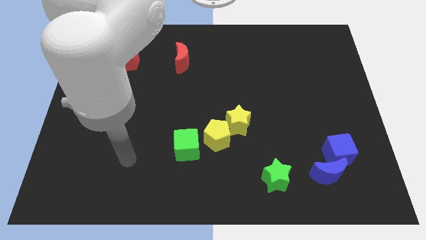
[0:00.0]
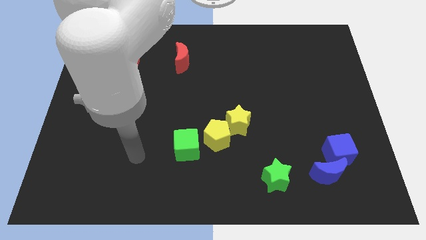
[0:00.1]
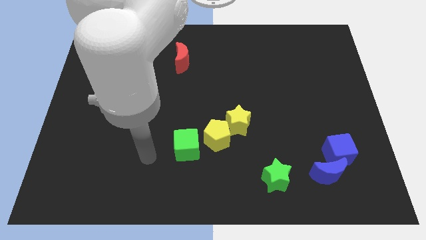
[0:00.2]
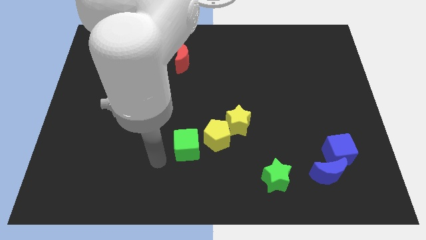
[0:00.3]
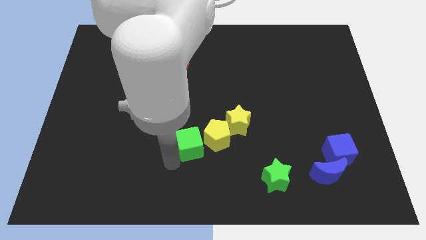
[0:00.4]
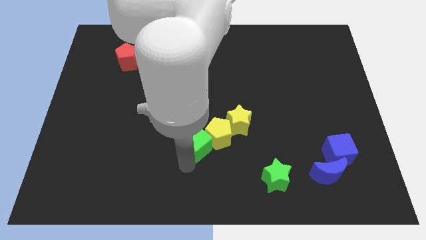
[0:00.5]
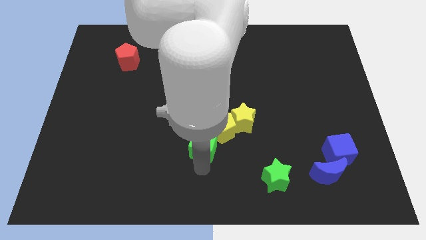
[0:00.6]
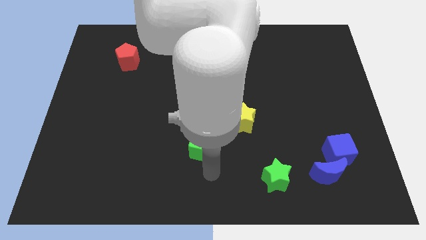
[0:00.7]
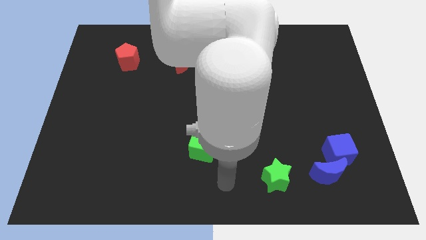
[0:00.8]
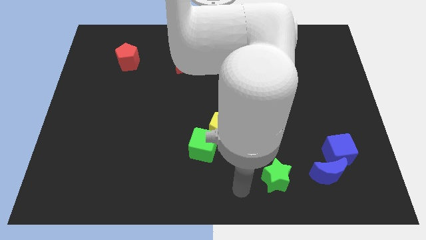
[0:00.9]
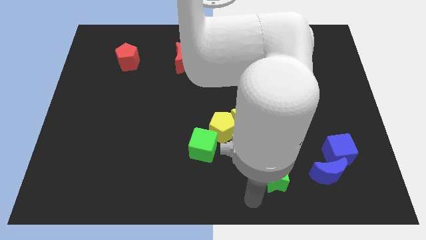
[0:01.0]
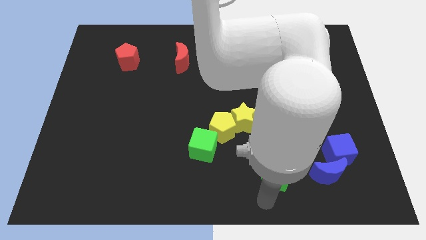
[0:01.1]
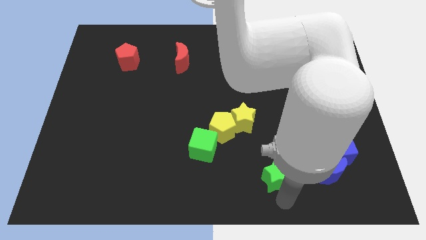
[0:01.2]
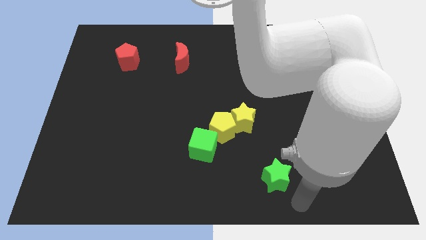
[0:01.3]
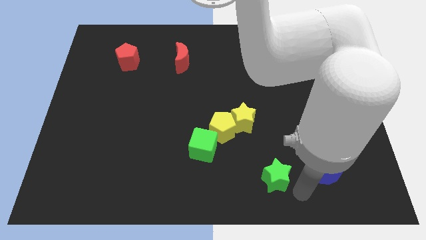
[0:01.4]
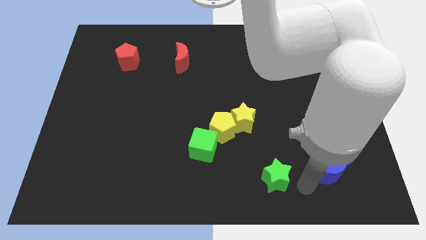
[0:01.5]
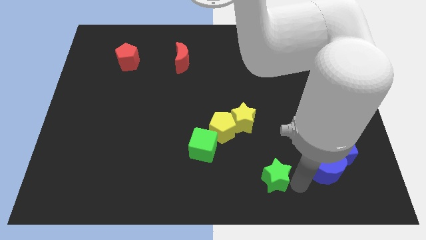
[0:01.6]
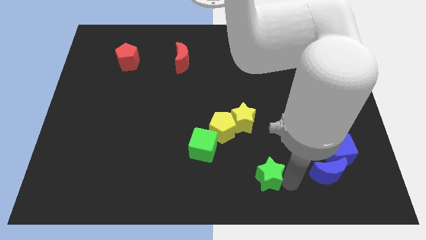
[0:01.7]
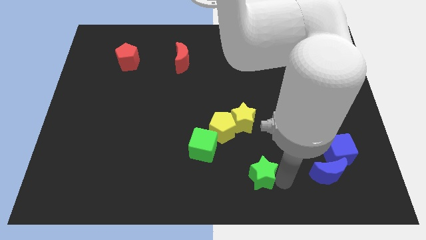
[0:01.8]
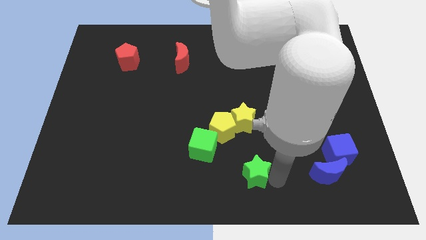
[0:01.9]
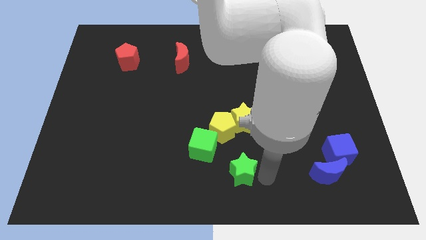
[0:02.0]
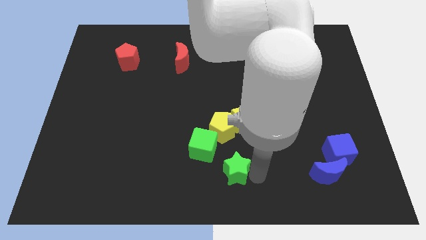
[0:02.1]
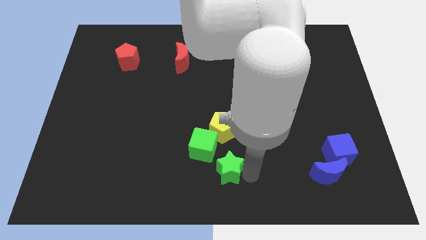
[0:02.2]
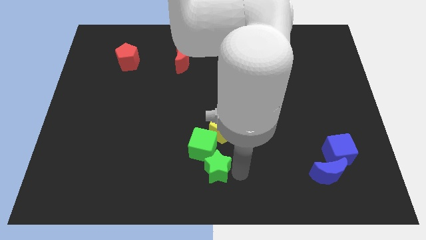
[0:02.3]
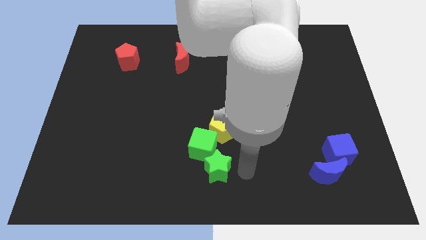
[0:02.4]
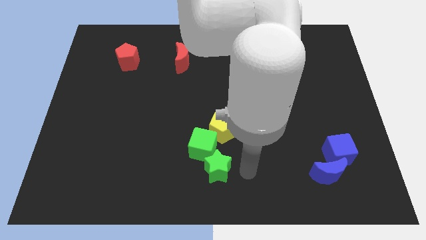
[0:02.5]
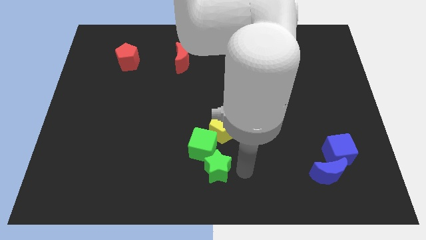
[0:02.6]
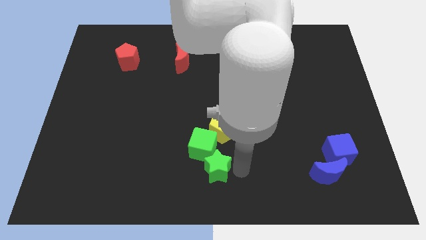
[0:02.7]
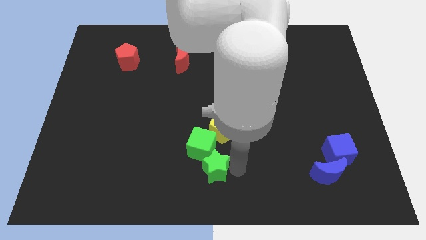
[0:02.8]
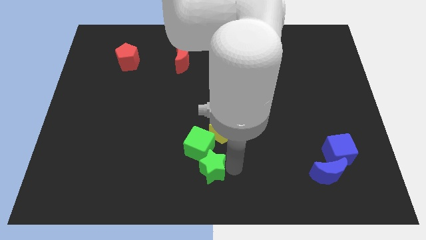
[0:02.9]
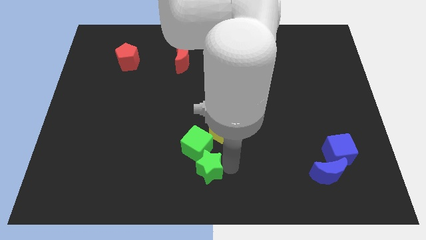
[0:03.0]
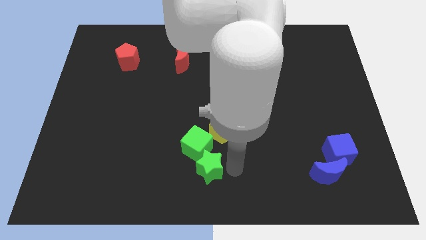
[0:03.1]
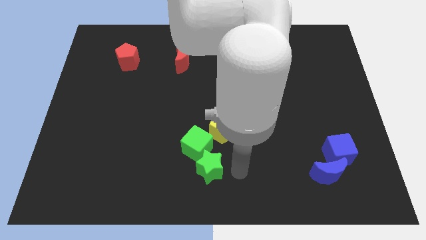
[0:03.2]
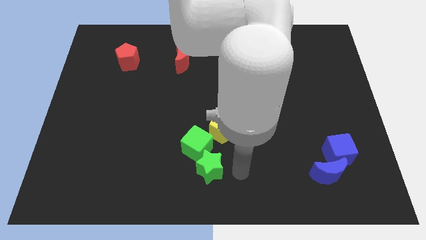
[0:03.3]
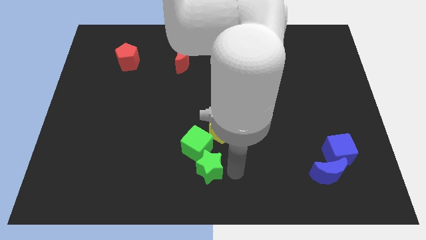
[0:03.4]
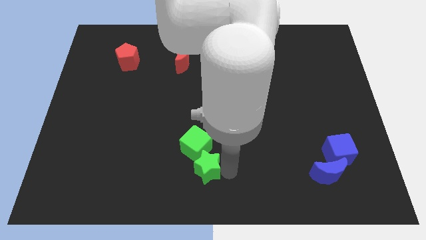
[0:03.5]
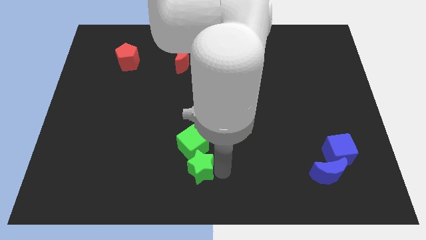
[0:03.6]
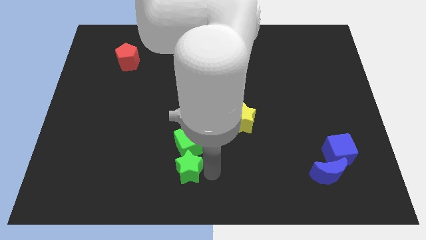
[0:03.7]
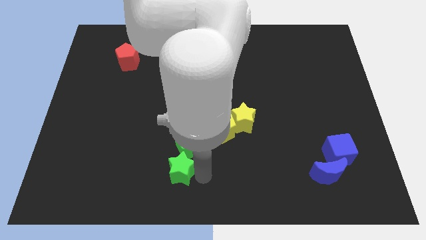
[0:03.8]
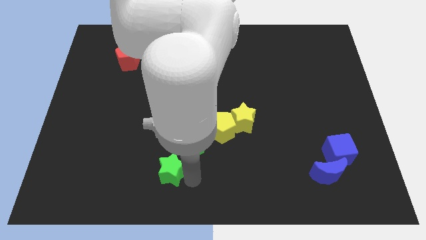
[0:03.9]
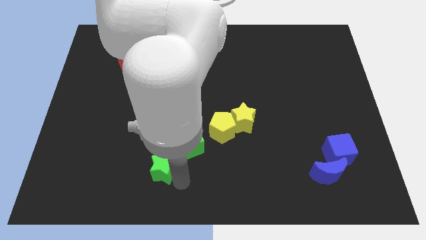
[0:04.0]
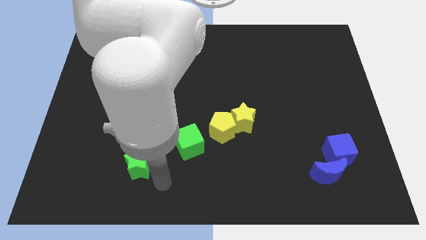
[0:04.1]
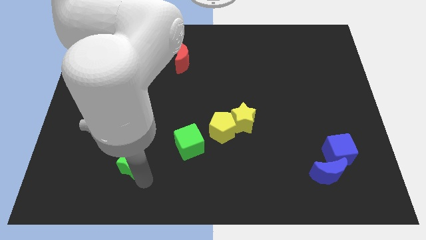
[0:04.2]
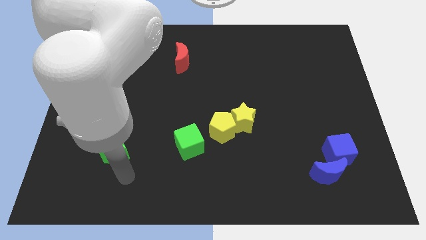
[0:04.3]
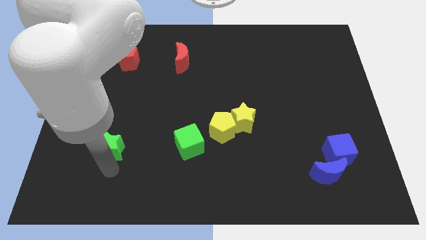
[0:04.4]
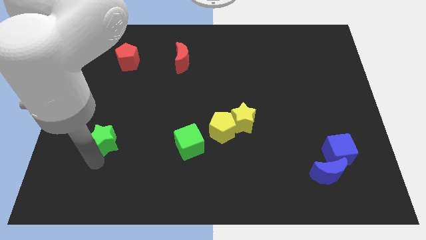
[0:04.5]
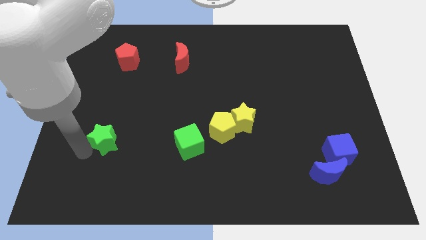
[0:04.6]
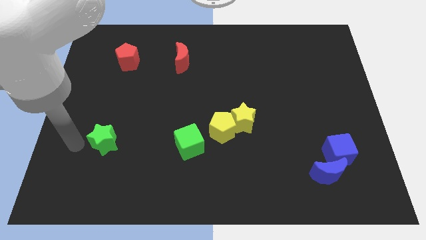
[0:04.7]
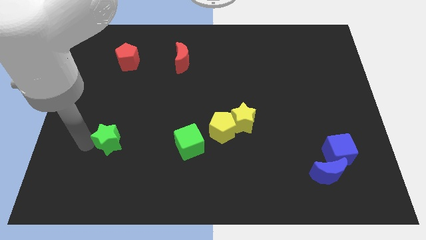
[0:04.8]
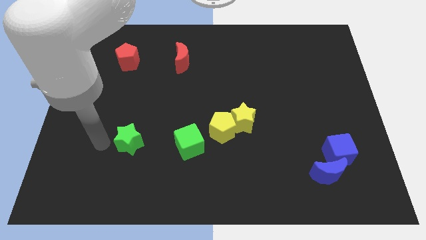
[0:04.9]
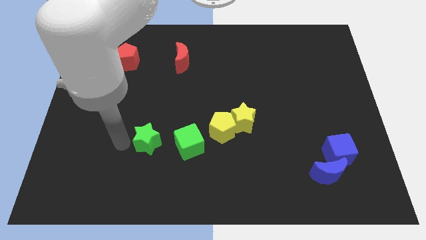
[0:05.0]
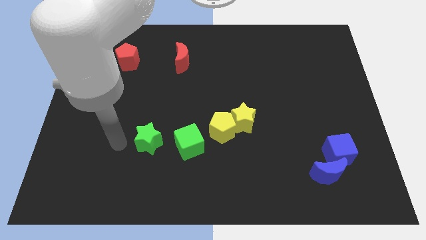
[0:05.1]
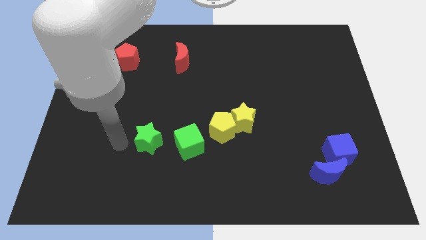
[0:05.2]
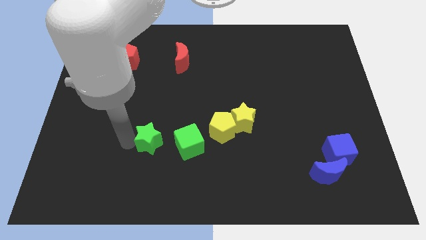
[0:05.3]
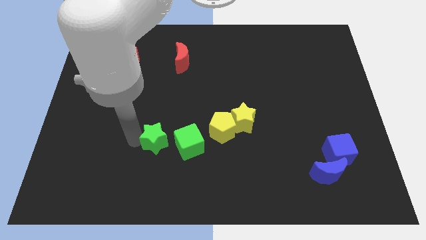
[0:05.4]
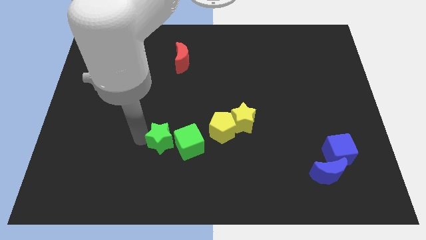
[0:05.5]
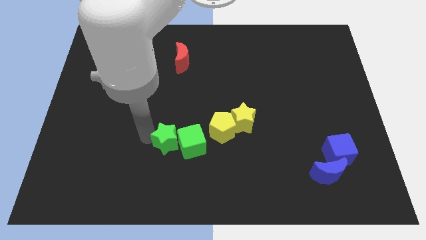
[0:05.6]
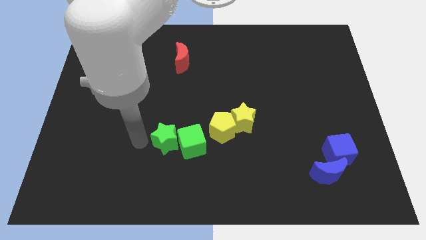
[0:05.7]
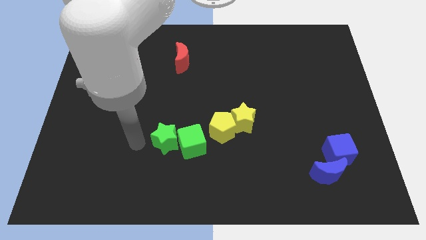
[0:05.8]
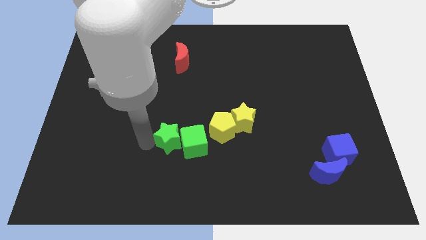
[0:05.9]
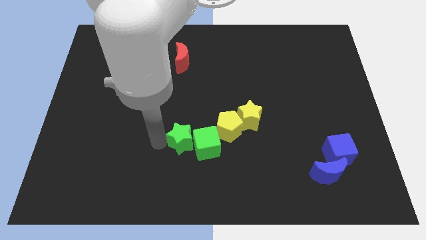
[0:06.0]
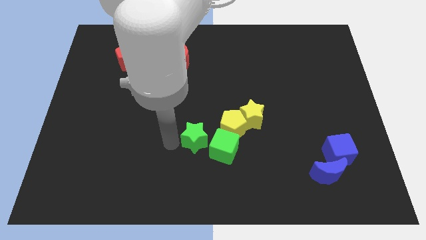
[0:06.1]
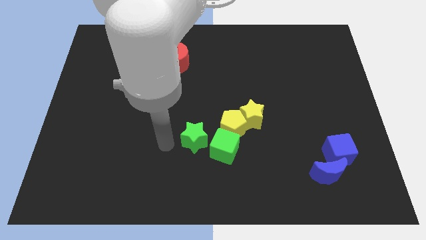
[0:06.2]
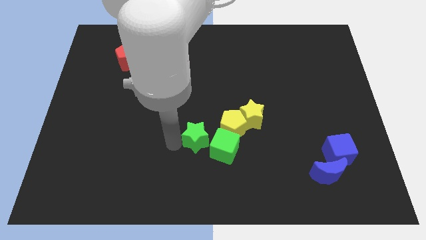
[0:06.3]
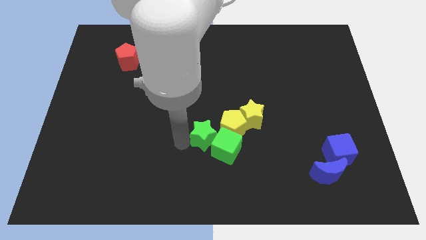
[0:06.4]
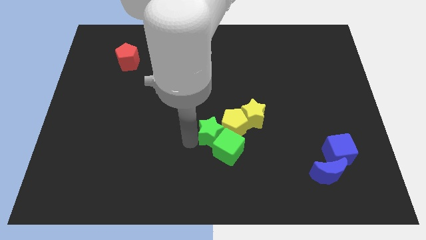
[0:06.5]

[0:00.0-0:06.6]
put the green star diagonally down and to the left of the yellow star

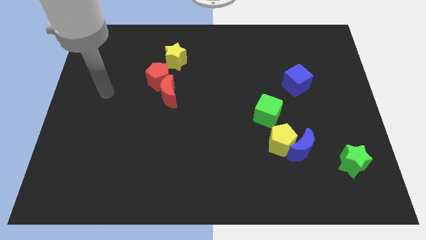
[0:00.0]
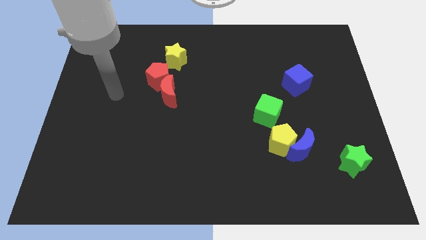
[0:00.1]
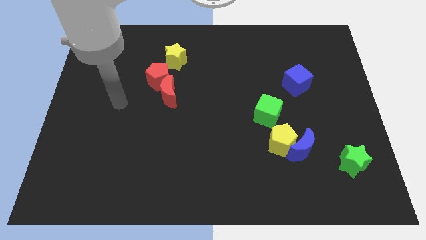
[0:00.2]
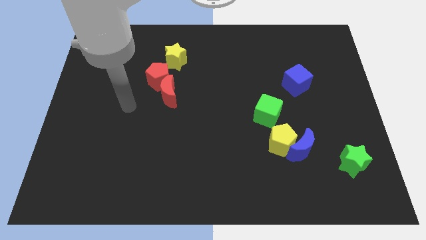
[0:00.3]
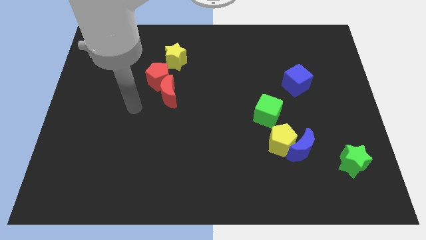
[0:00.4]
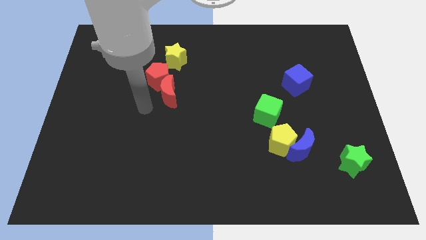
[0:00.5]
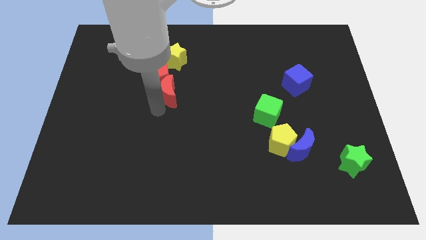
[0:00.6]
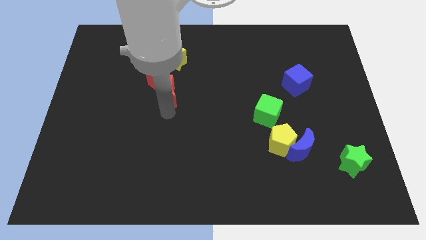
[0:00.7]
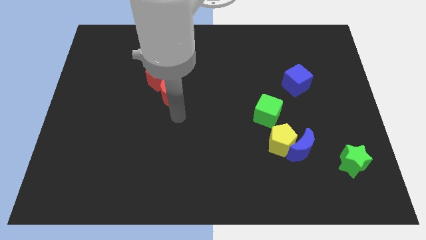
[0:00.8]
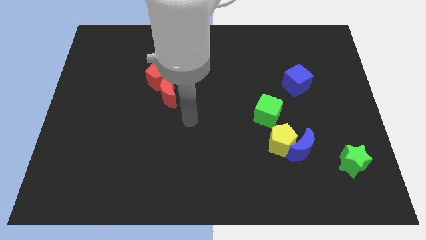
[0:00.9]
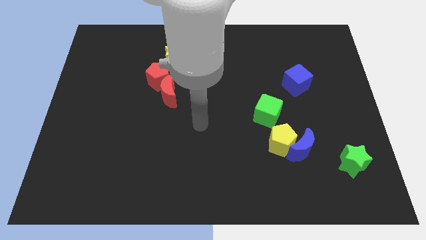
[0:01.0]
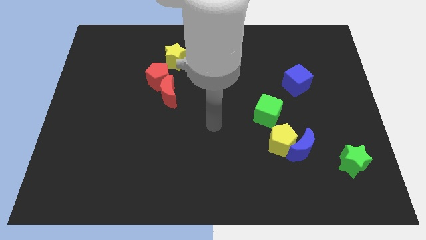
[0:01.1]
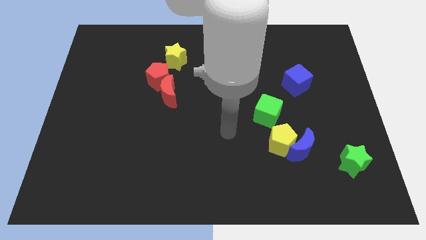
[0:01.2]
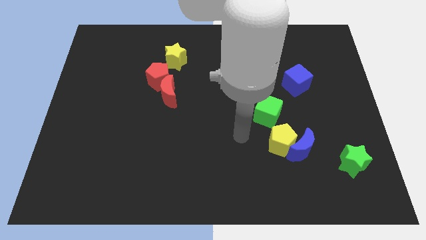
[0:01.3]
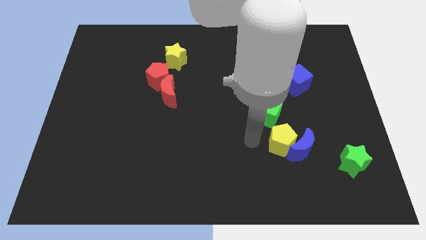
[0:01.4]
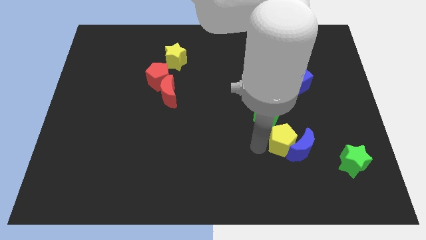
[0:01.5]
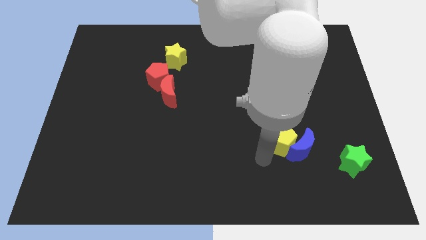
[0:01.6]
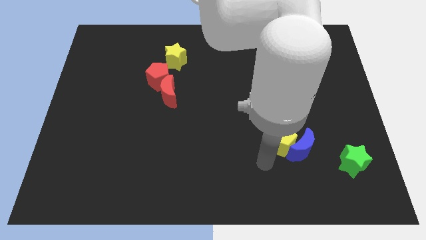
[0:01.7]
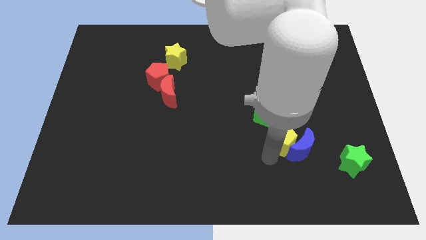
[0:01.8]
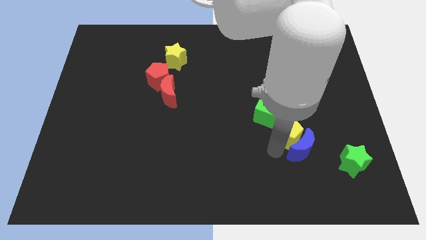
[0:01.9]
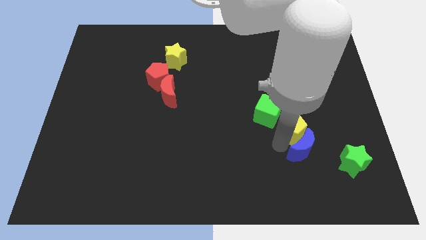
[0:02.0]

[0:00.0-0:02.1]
slide the yellow pentagon below the blue cube
